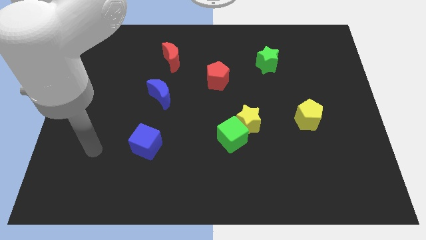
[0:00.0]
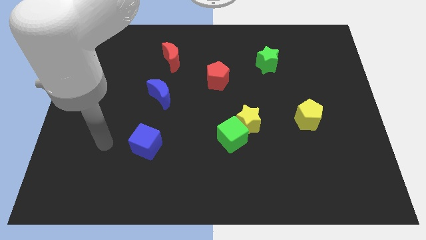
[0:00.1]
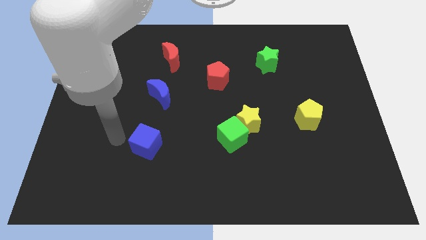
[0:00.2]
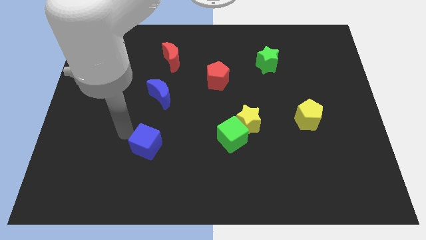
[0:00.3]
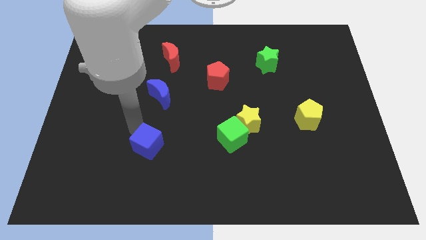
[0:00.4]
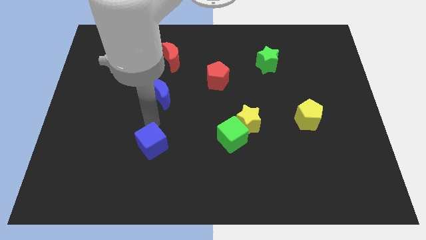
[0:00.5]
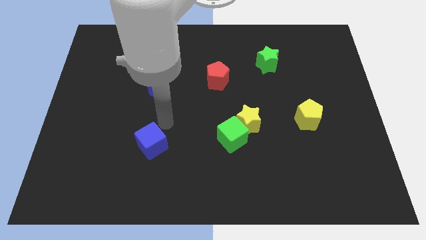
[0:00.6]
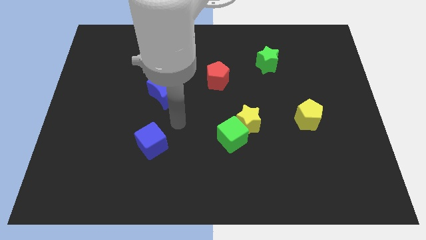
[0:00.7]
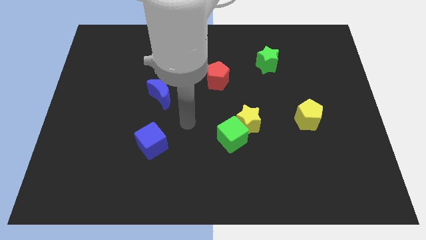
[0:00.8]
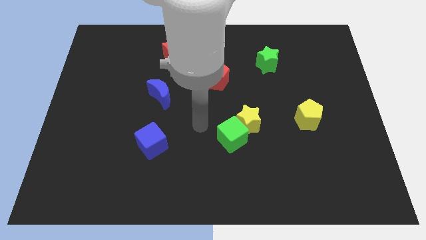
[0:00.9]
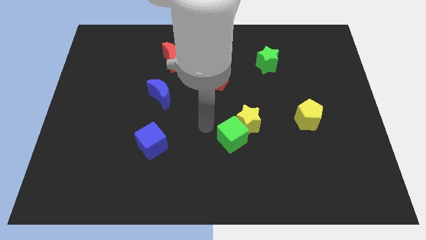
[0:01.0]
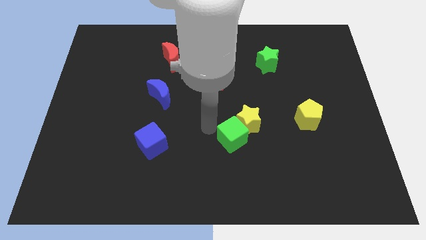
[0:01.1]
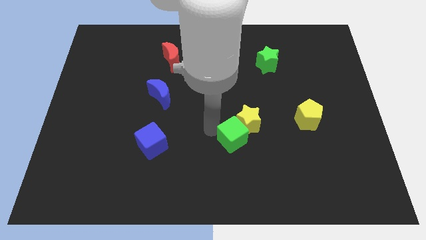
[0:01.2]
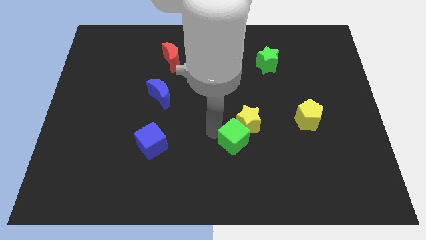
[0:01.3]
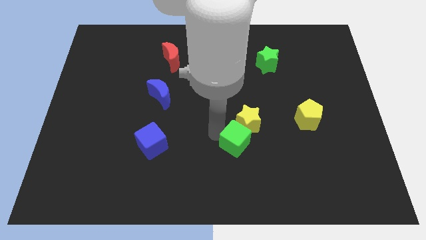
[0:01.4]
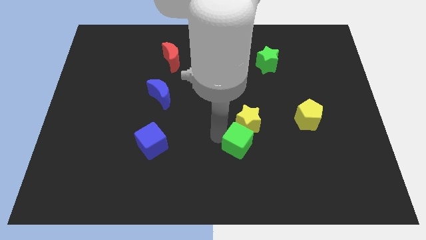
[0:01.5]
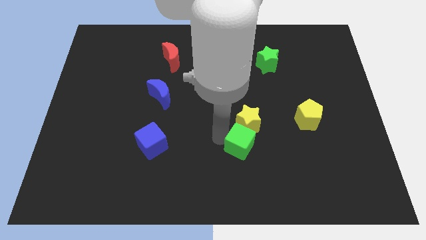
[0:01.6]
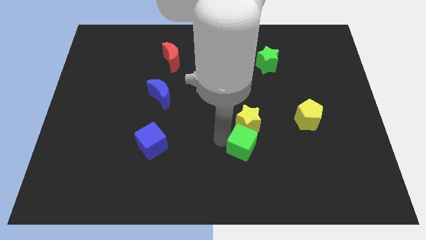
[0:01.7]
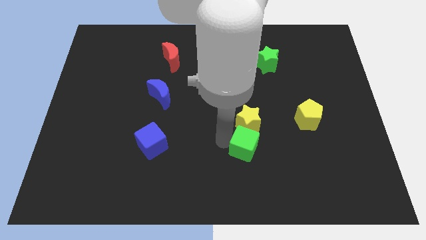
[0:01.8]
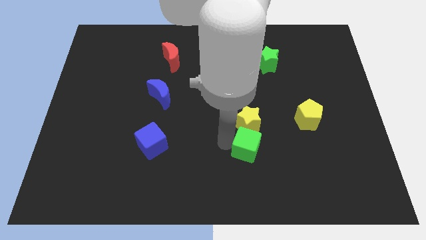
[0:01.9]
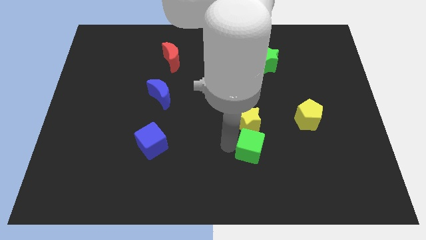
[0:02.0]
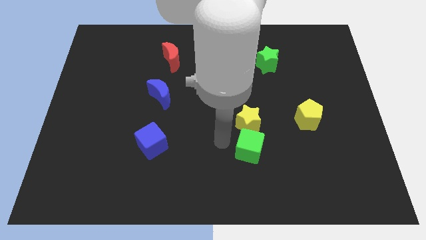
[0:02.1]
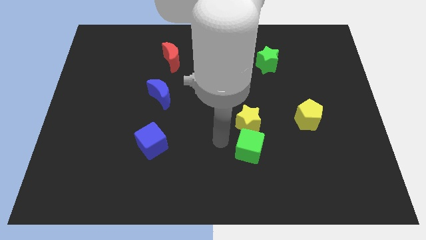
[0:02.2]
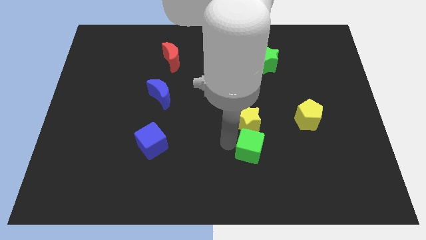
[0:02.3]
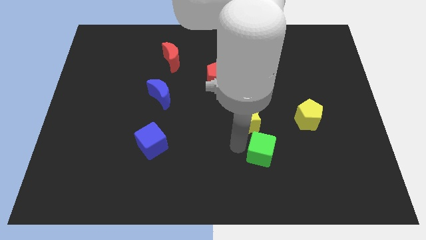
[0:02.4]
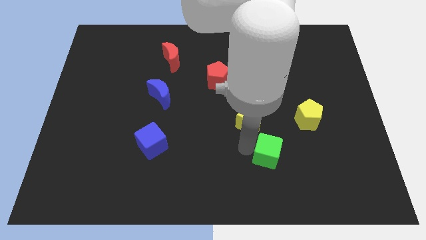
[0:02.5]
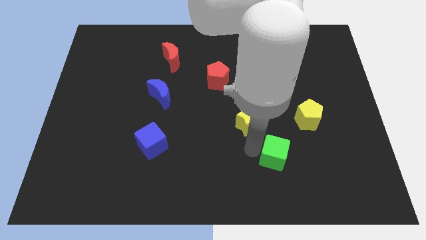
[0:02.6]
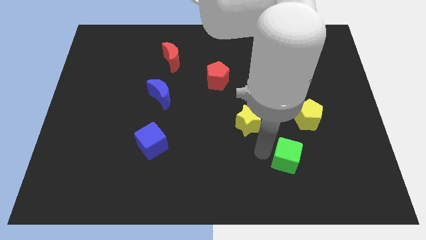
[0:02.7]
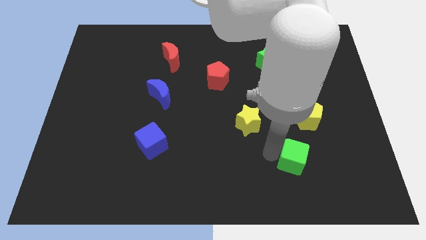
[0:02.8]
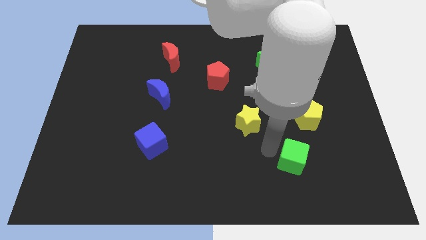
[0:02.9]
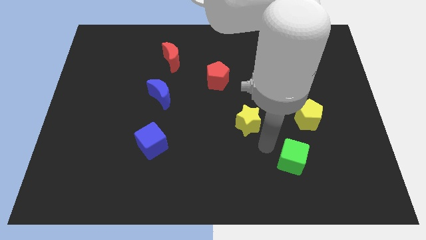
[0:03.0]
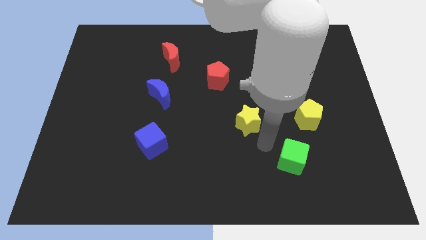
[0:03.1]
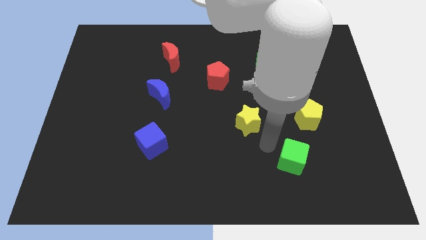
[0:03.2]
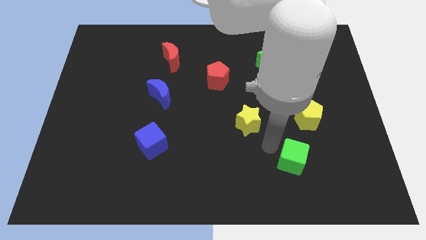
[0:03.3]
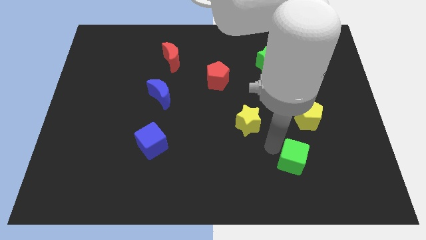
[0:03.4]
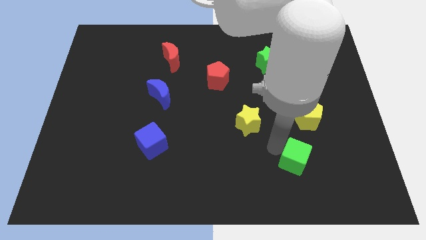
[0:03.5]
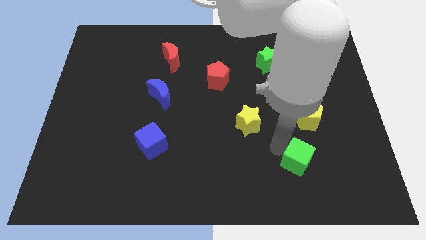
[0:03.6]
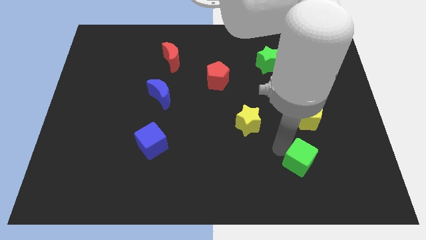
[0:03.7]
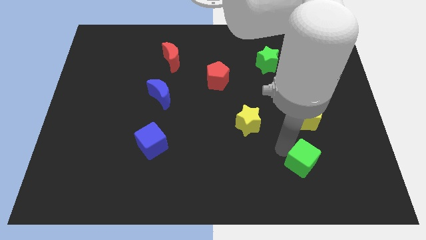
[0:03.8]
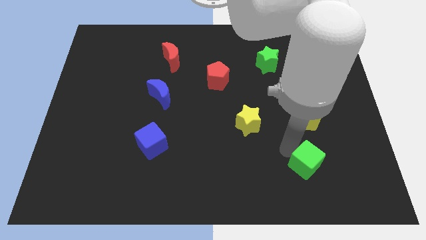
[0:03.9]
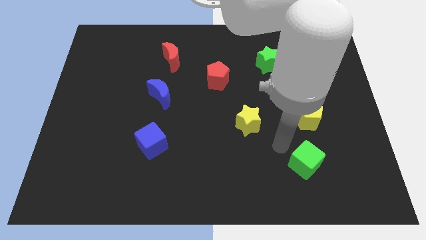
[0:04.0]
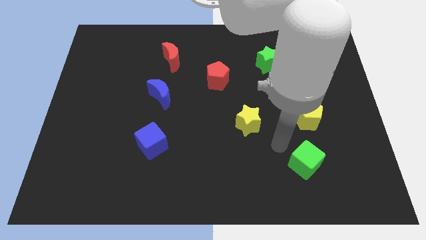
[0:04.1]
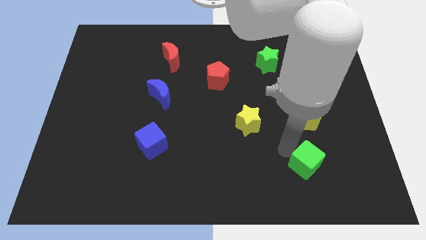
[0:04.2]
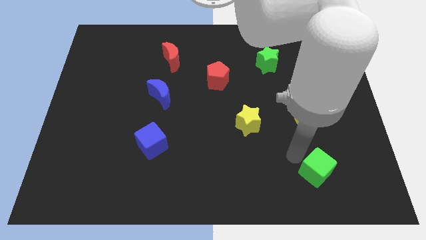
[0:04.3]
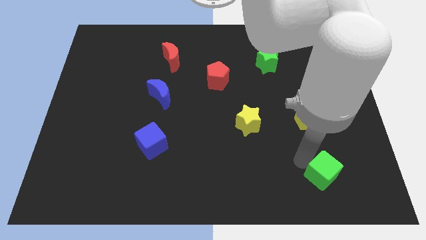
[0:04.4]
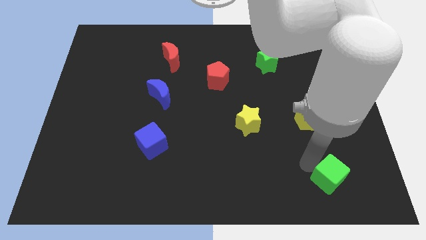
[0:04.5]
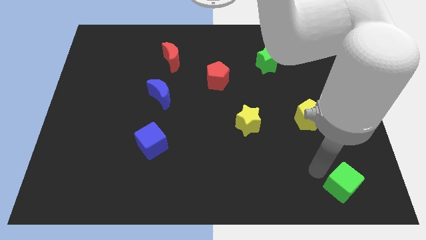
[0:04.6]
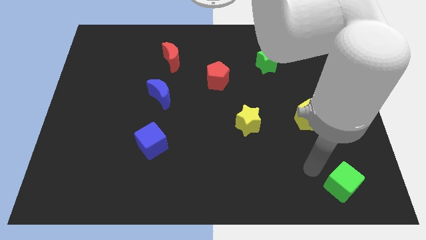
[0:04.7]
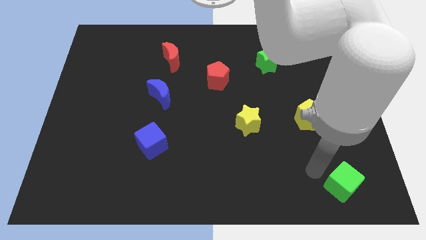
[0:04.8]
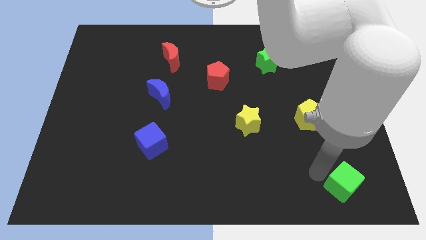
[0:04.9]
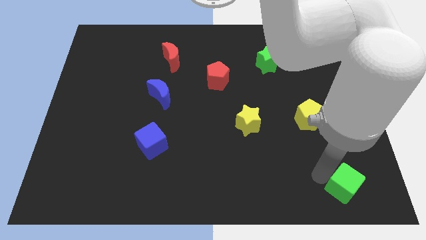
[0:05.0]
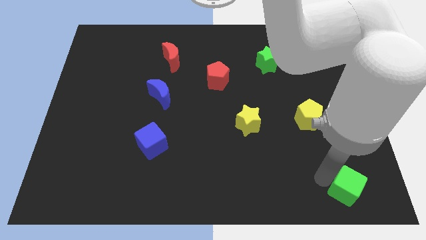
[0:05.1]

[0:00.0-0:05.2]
move the green cube to the lower right corner

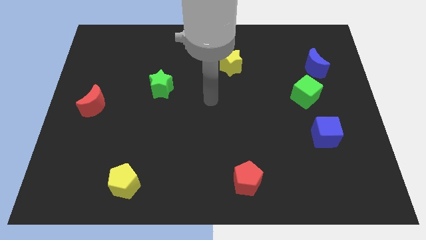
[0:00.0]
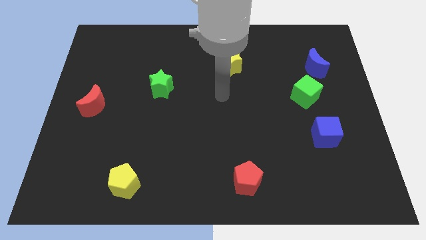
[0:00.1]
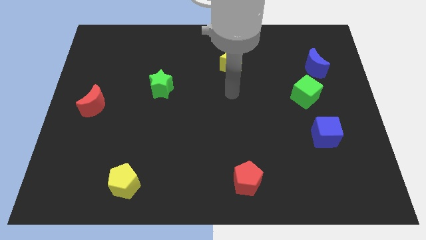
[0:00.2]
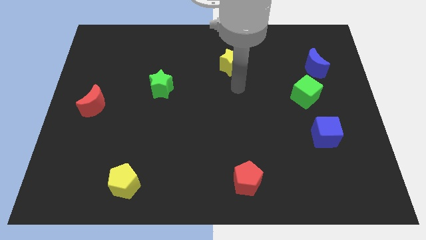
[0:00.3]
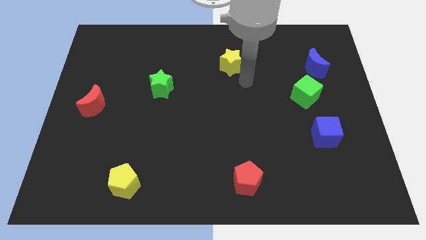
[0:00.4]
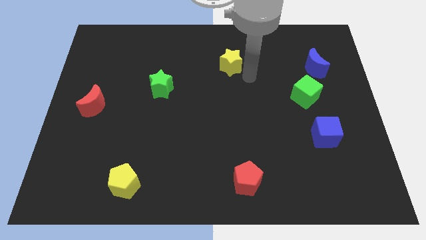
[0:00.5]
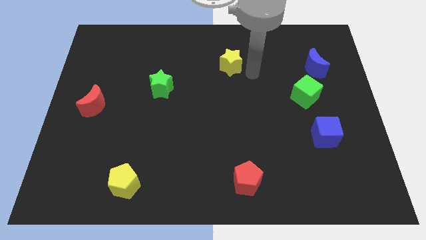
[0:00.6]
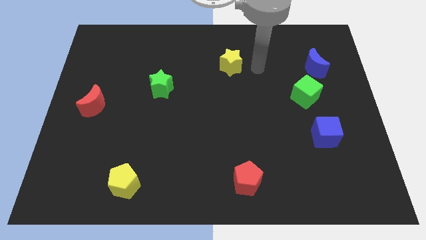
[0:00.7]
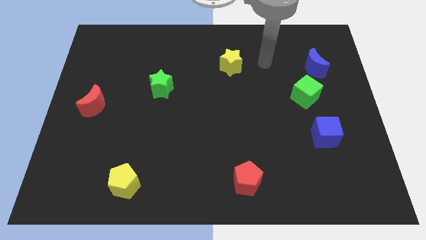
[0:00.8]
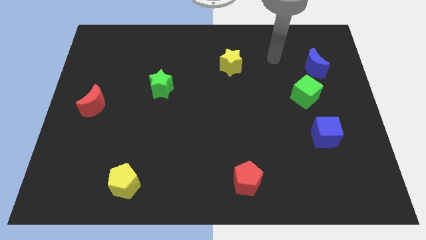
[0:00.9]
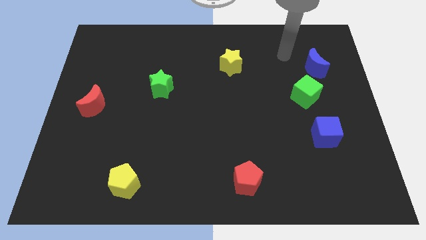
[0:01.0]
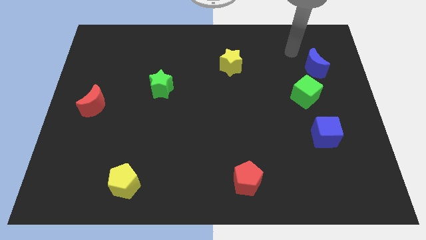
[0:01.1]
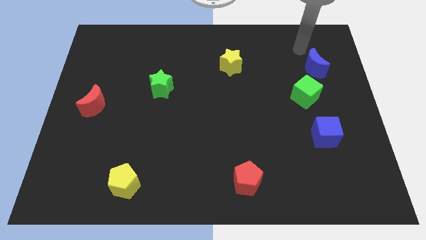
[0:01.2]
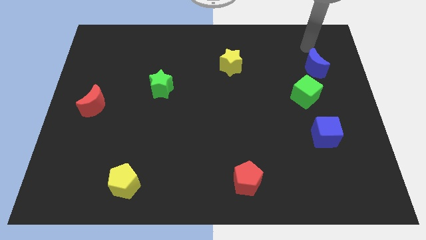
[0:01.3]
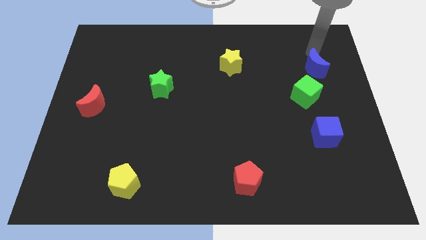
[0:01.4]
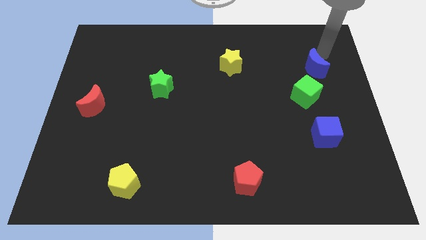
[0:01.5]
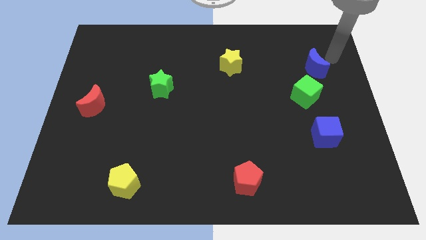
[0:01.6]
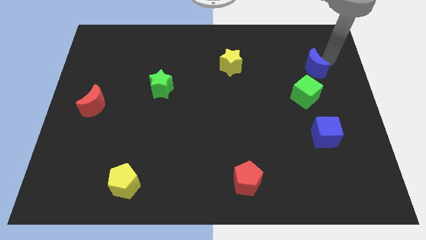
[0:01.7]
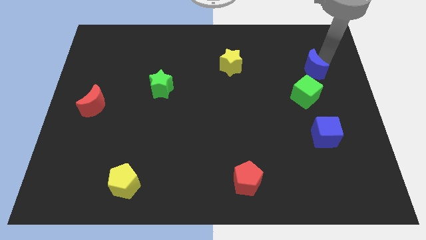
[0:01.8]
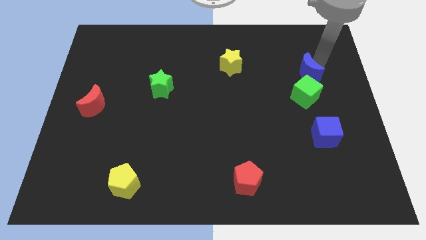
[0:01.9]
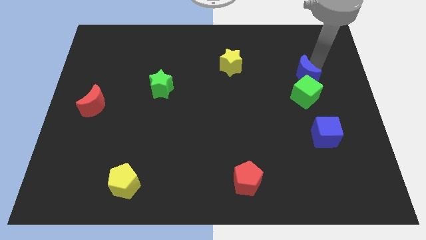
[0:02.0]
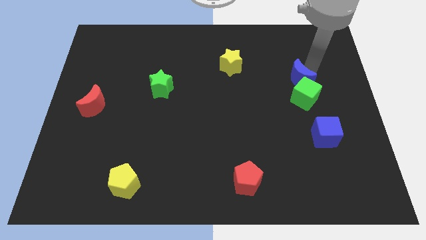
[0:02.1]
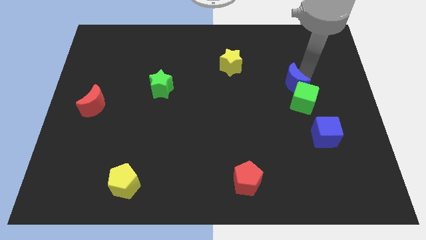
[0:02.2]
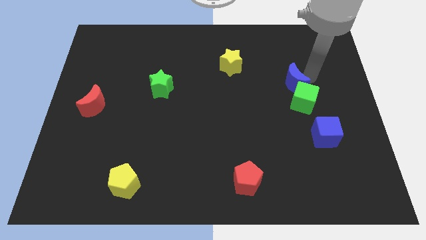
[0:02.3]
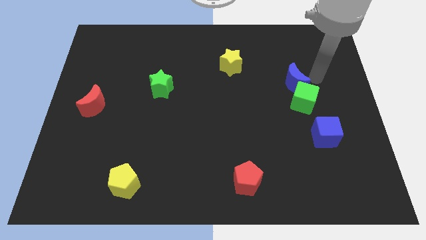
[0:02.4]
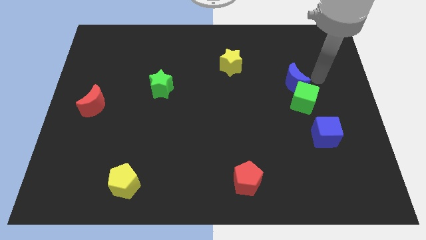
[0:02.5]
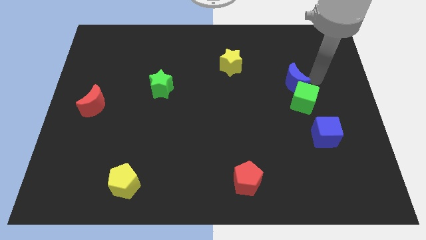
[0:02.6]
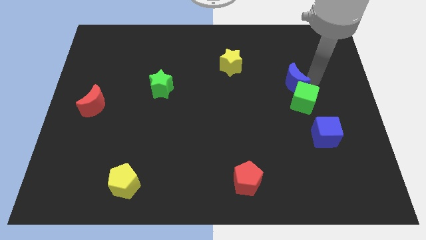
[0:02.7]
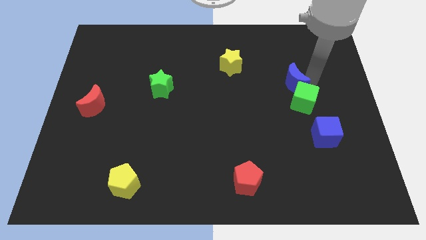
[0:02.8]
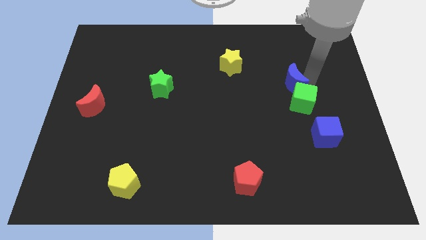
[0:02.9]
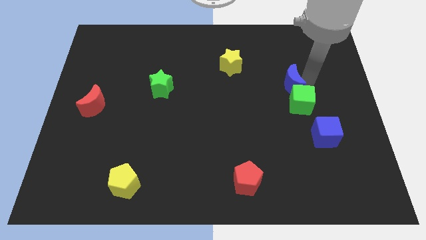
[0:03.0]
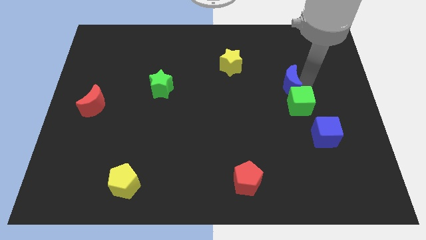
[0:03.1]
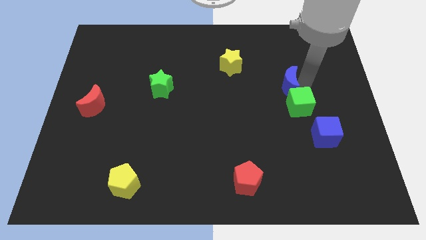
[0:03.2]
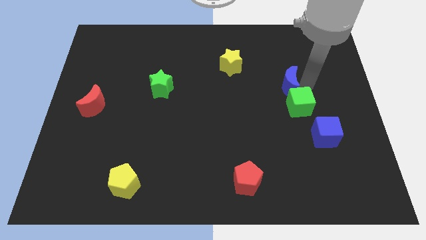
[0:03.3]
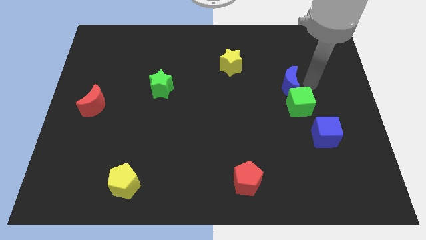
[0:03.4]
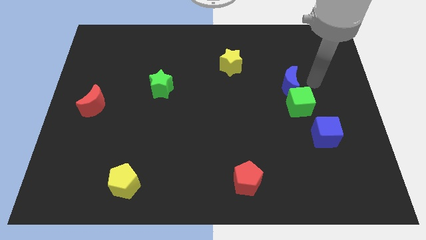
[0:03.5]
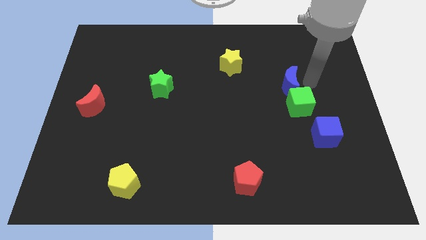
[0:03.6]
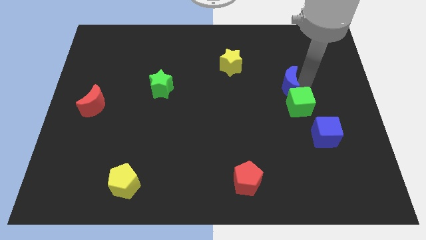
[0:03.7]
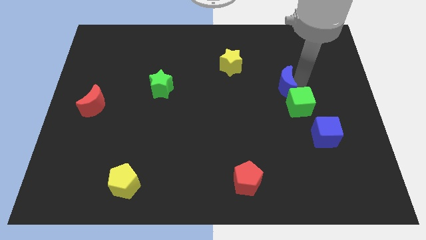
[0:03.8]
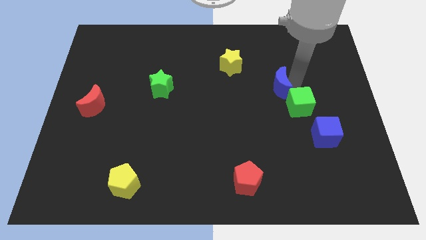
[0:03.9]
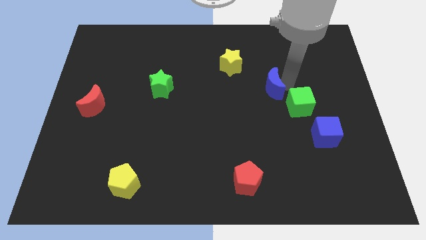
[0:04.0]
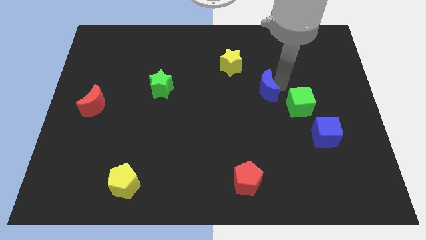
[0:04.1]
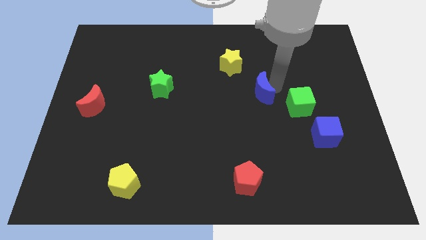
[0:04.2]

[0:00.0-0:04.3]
move the blue moon to the middle of the board
